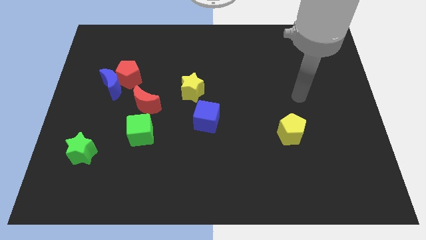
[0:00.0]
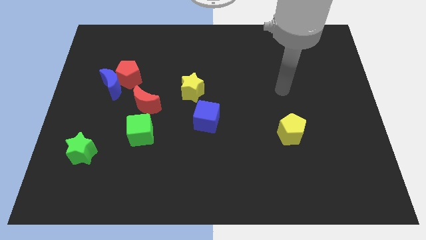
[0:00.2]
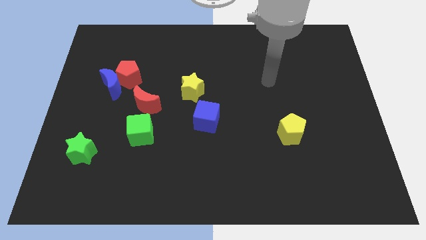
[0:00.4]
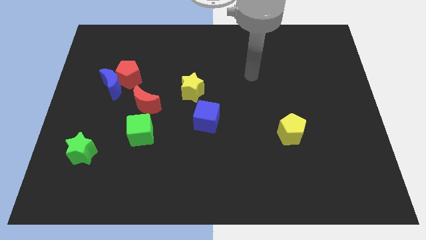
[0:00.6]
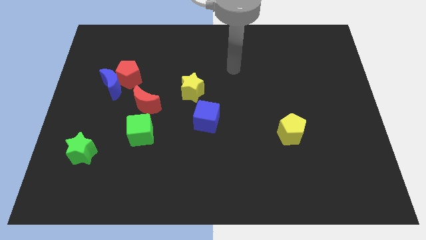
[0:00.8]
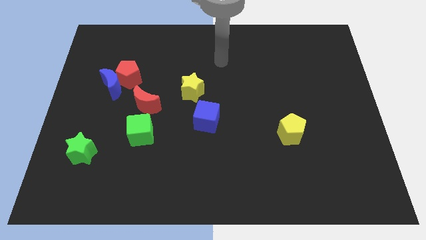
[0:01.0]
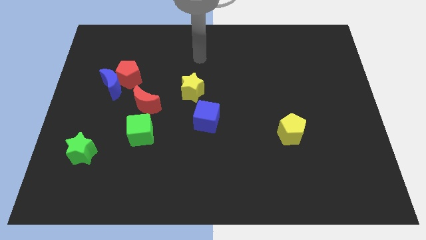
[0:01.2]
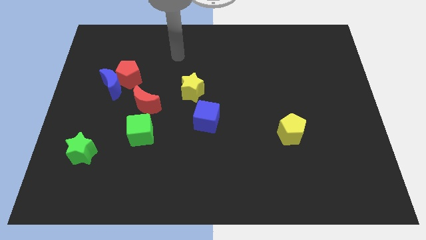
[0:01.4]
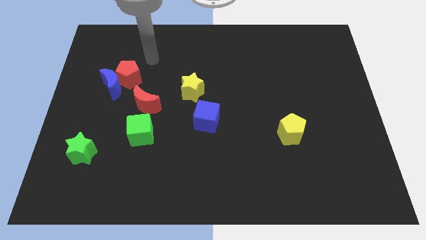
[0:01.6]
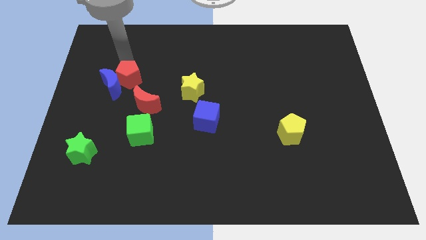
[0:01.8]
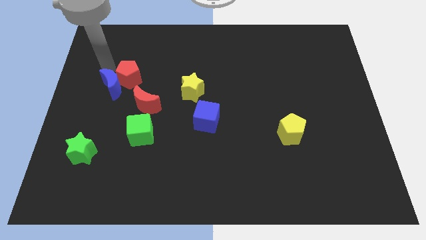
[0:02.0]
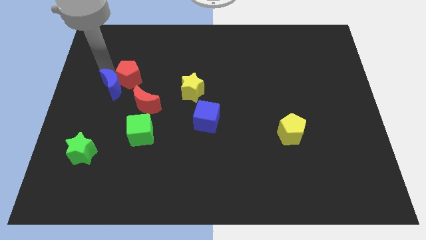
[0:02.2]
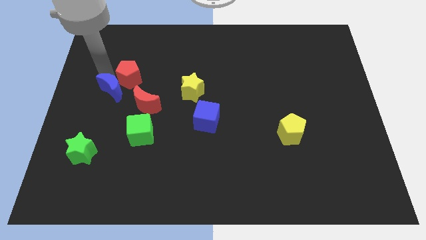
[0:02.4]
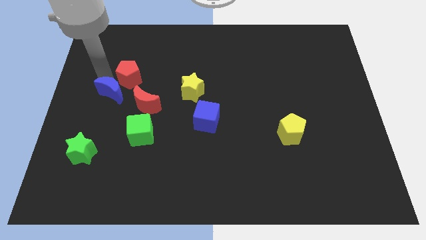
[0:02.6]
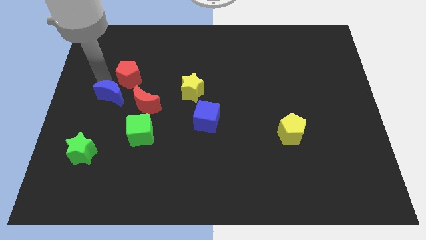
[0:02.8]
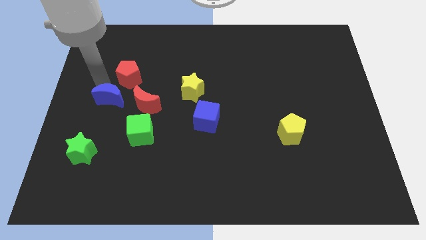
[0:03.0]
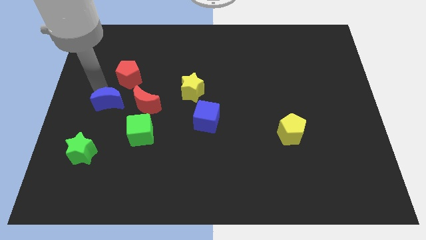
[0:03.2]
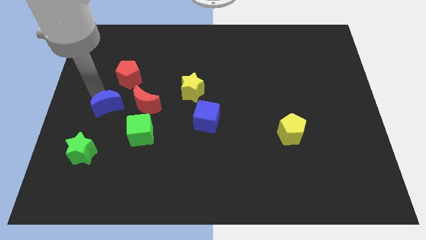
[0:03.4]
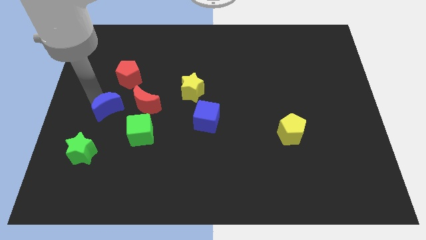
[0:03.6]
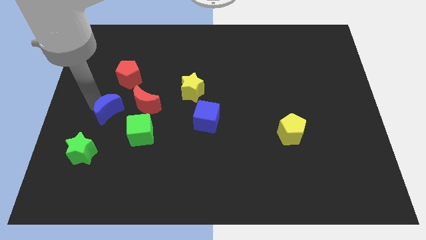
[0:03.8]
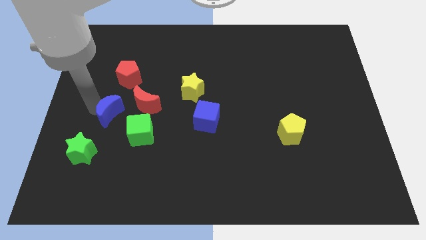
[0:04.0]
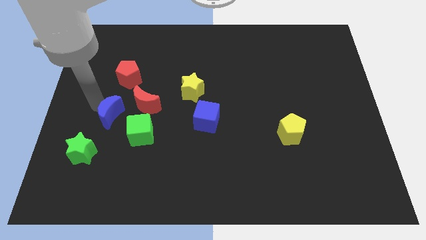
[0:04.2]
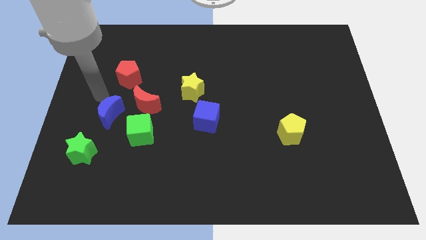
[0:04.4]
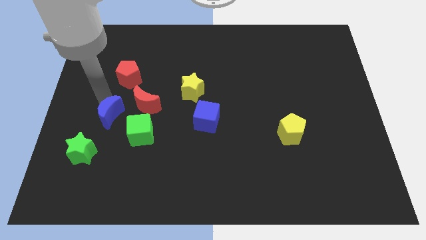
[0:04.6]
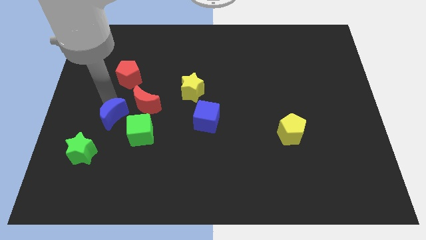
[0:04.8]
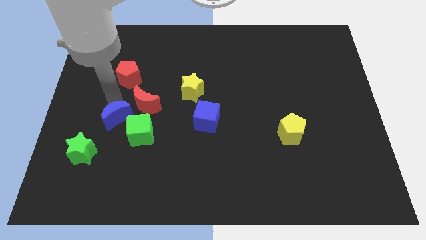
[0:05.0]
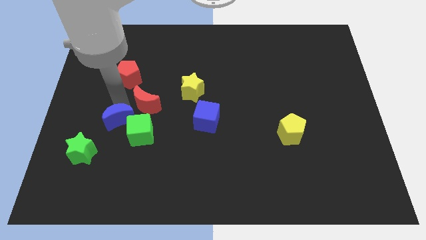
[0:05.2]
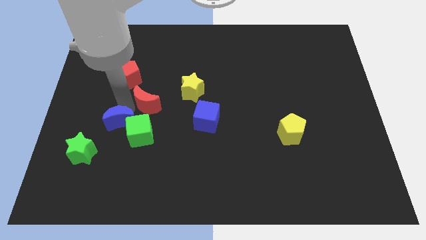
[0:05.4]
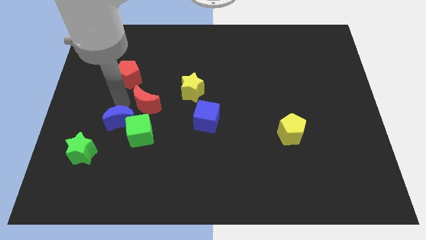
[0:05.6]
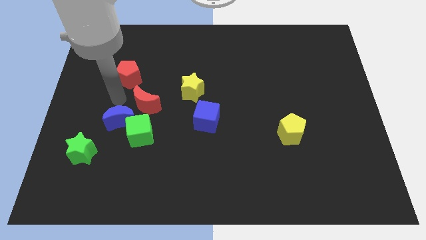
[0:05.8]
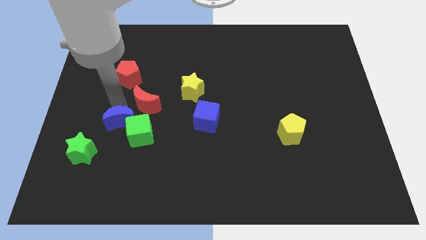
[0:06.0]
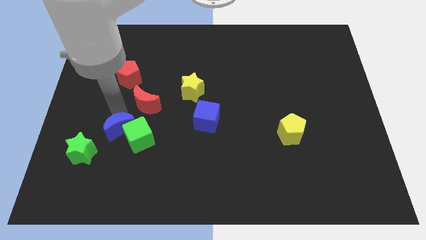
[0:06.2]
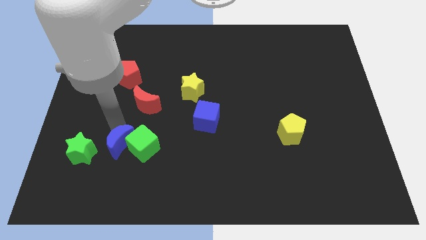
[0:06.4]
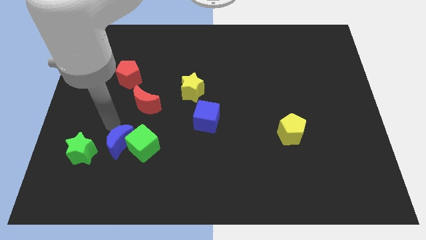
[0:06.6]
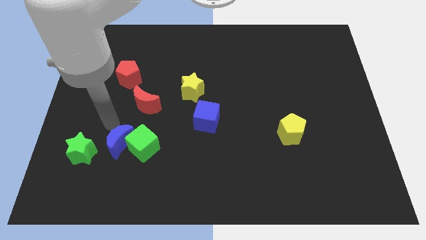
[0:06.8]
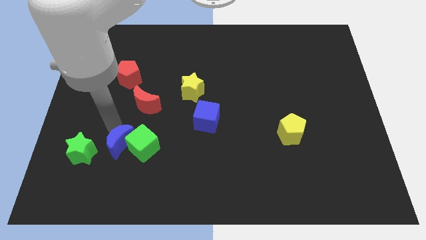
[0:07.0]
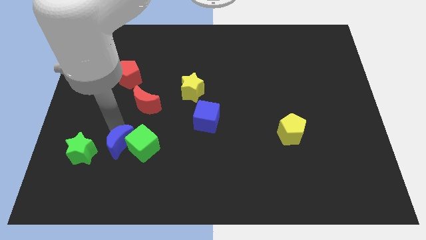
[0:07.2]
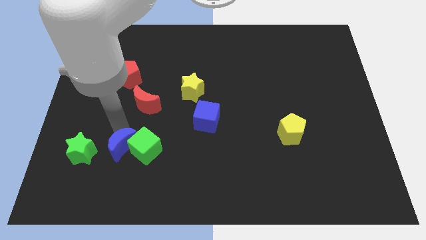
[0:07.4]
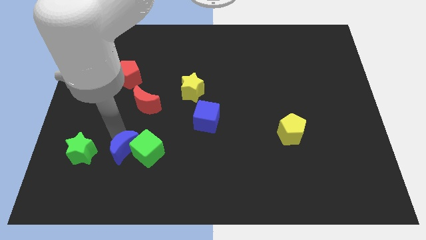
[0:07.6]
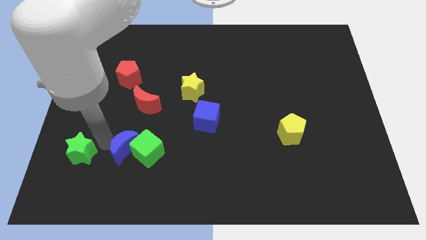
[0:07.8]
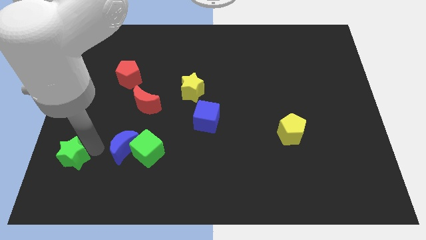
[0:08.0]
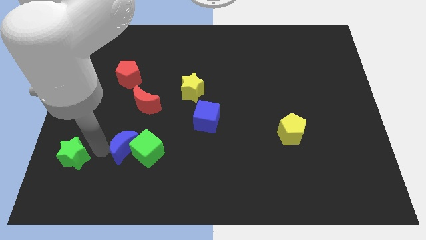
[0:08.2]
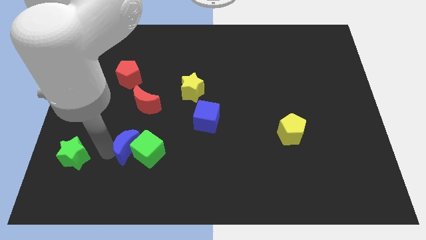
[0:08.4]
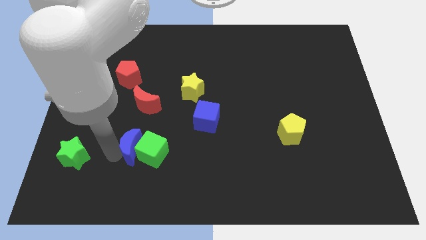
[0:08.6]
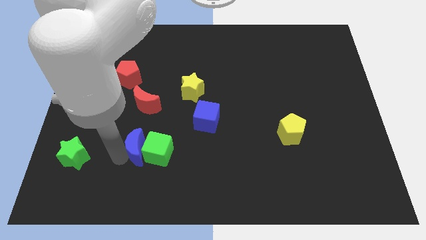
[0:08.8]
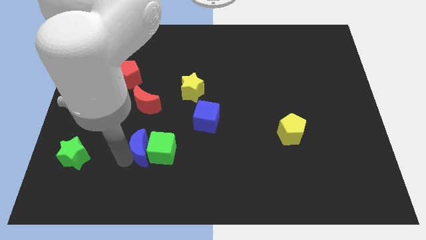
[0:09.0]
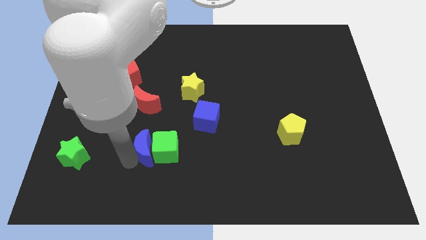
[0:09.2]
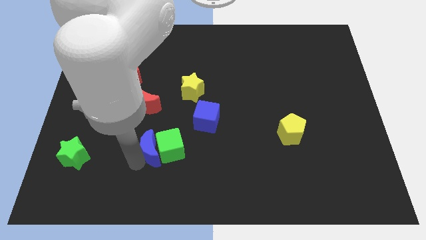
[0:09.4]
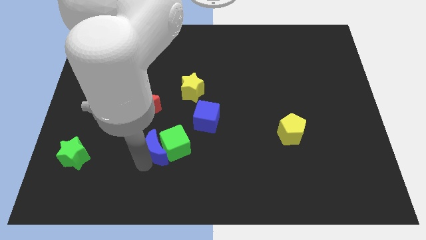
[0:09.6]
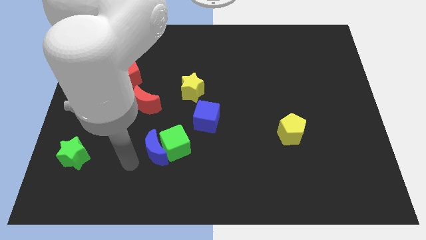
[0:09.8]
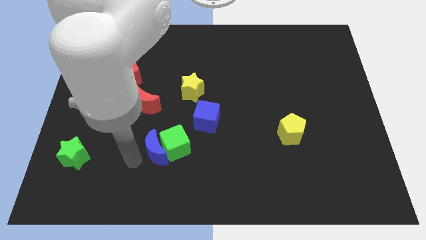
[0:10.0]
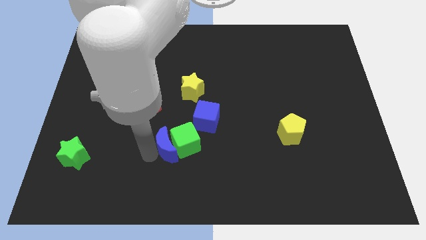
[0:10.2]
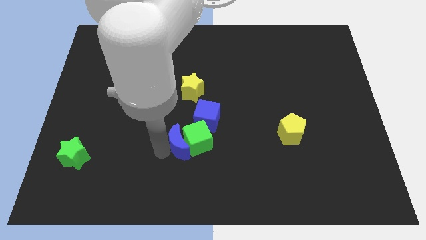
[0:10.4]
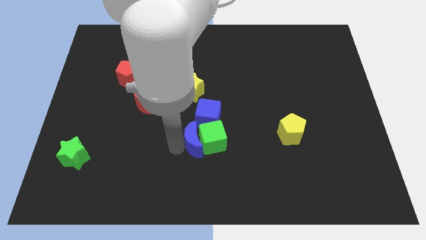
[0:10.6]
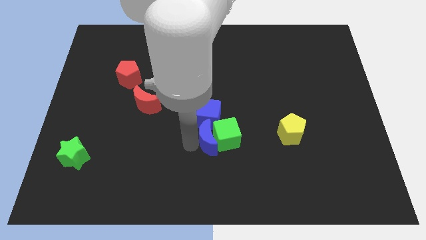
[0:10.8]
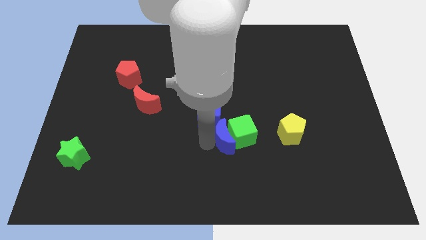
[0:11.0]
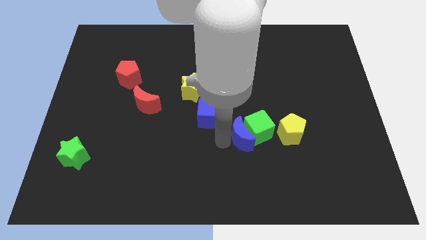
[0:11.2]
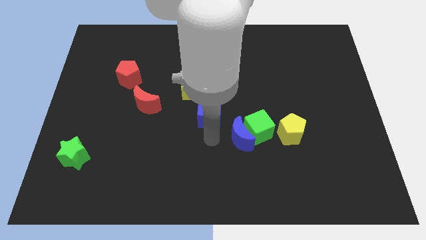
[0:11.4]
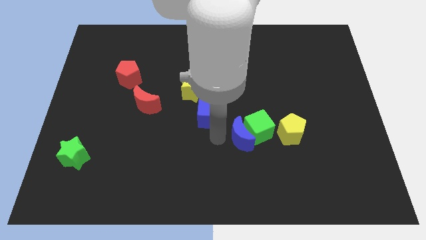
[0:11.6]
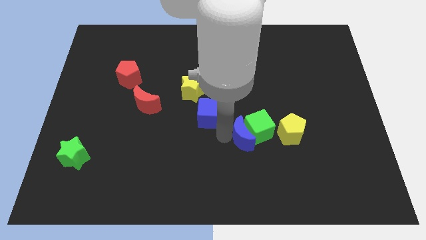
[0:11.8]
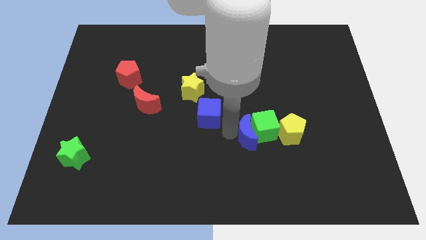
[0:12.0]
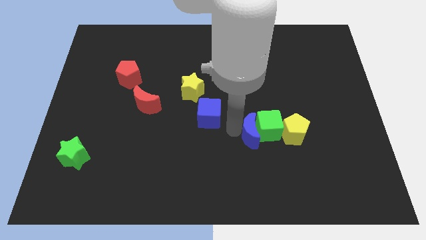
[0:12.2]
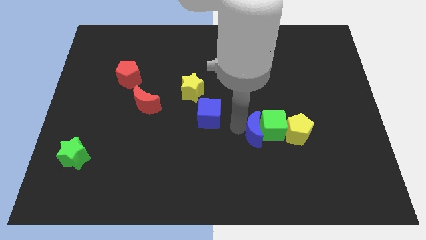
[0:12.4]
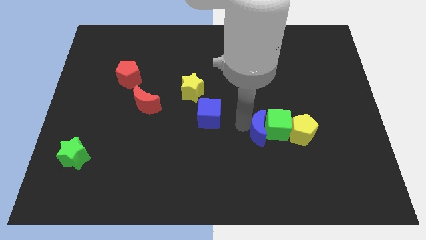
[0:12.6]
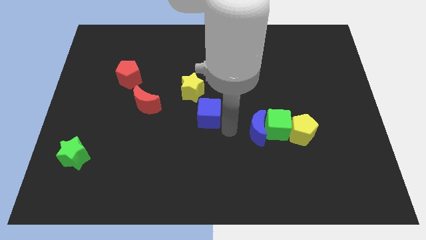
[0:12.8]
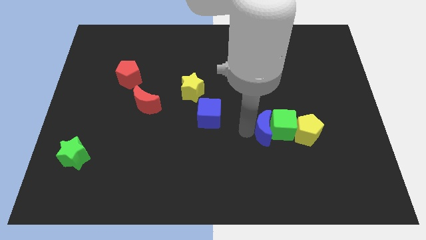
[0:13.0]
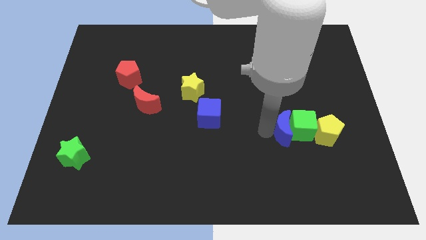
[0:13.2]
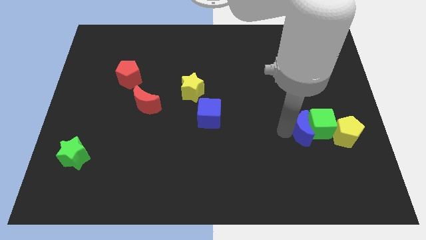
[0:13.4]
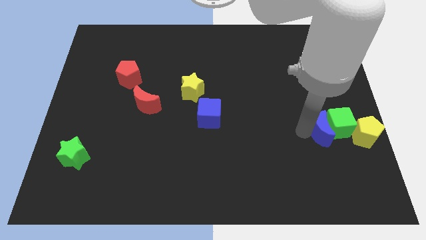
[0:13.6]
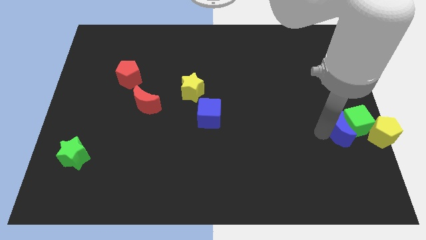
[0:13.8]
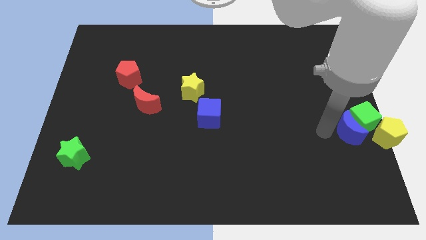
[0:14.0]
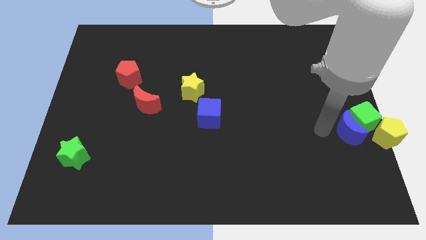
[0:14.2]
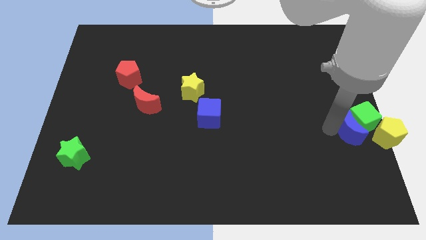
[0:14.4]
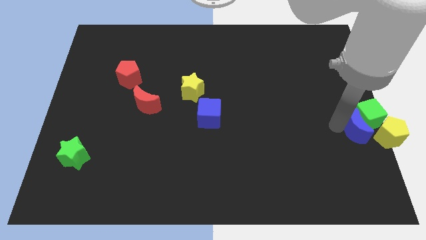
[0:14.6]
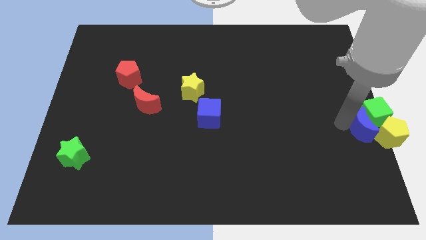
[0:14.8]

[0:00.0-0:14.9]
push the blue moon to the yellow pentagon
